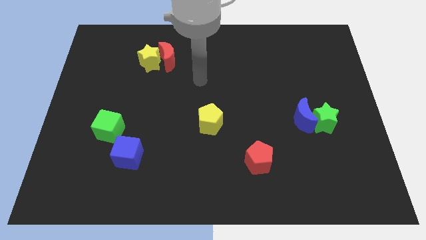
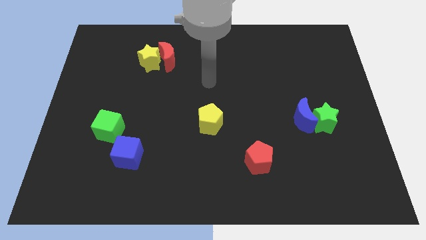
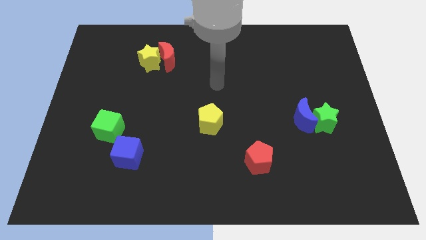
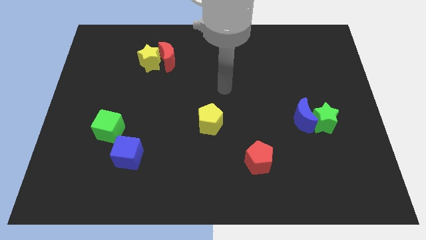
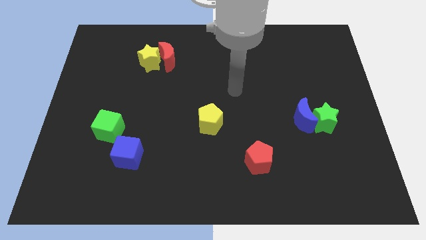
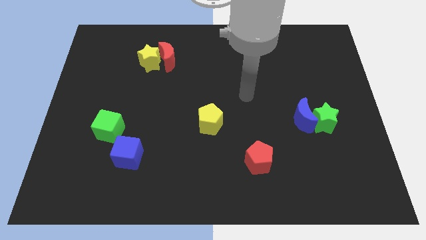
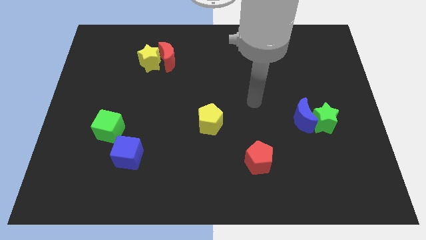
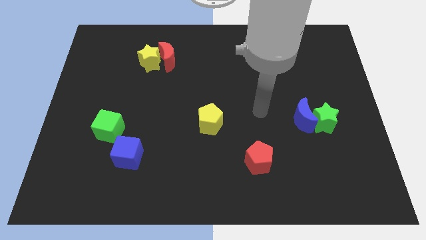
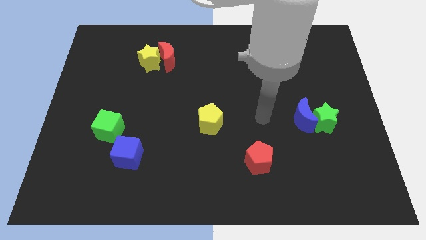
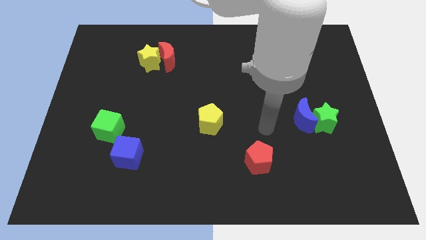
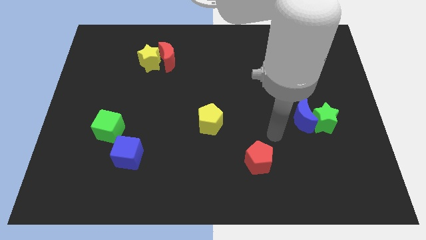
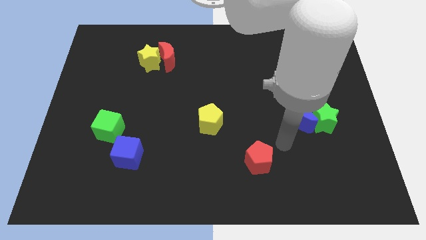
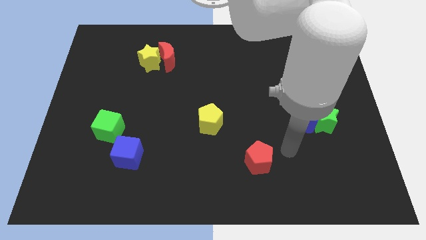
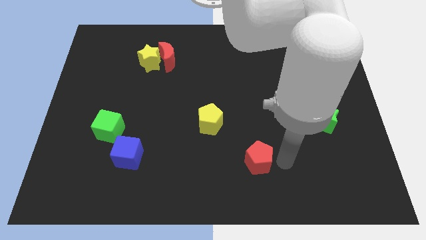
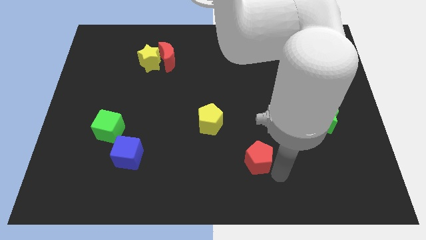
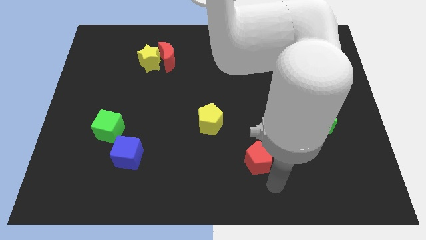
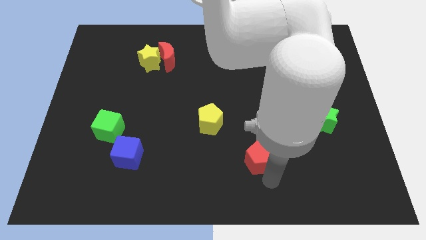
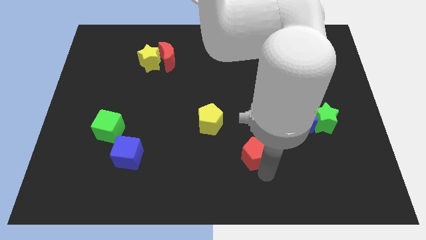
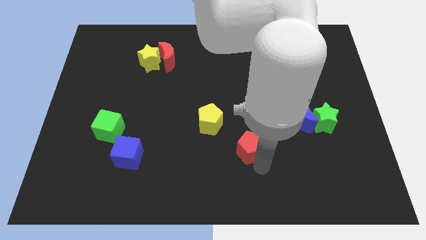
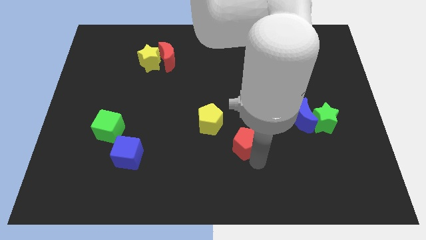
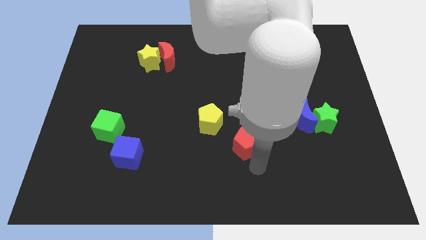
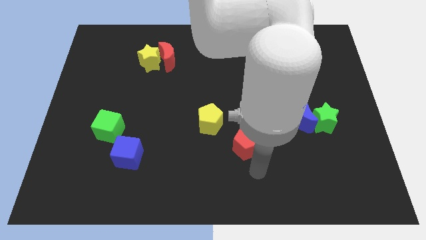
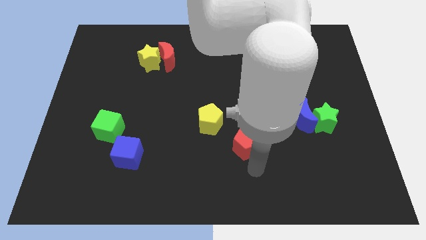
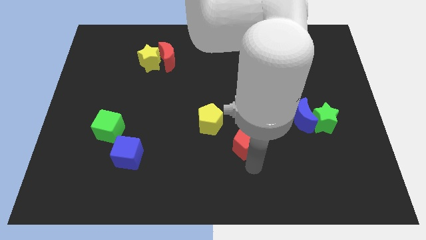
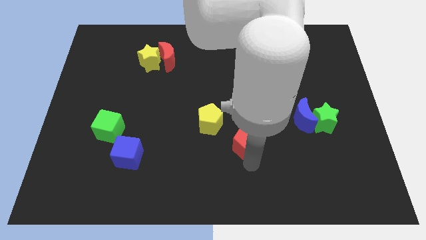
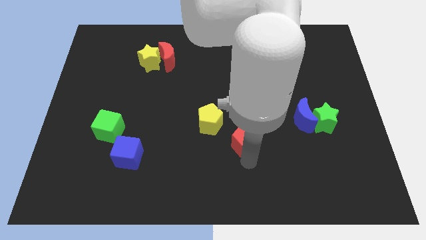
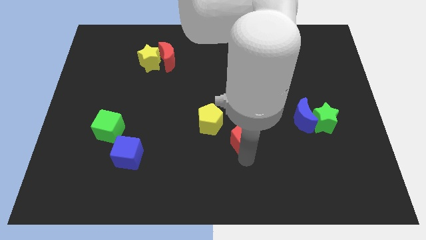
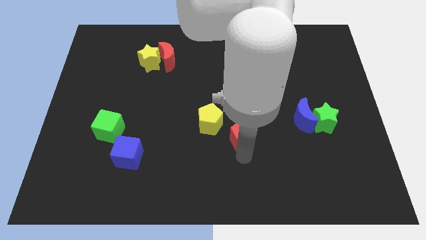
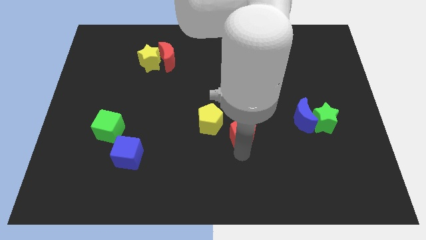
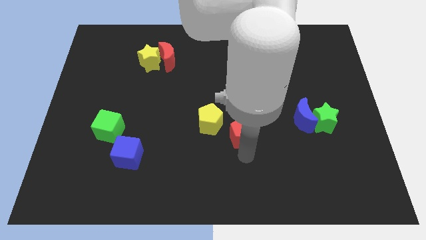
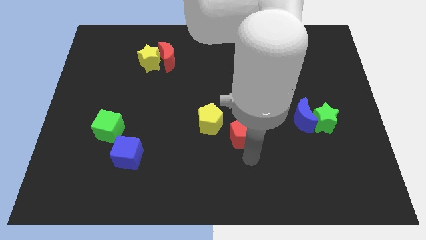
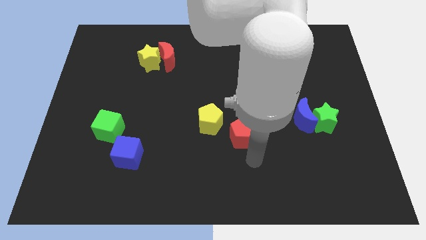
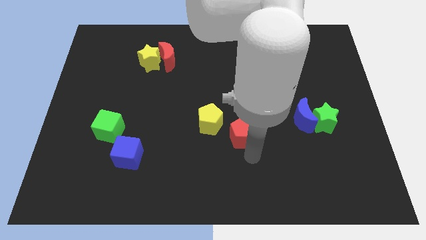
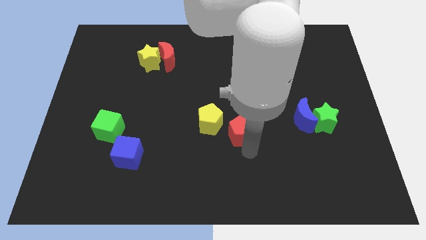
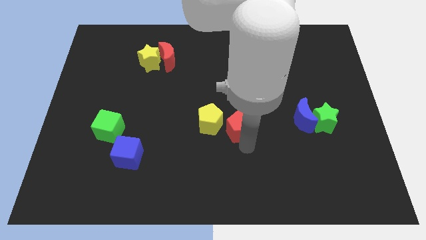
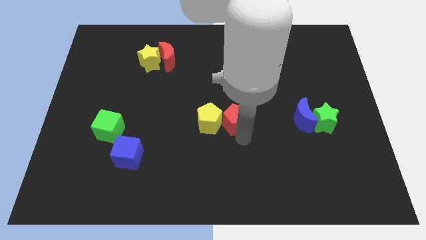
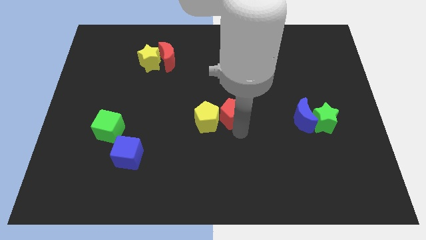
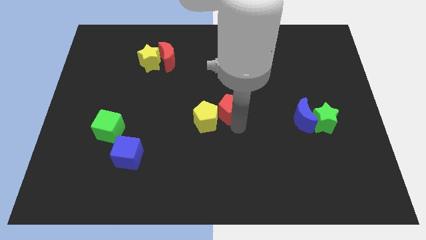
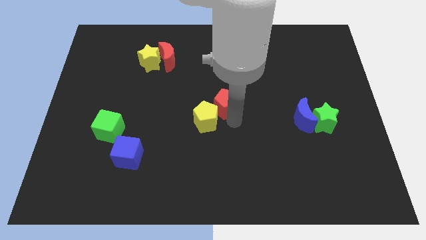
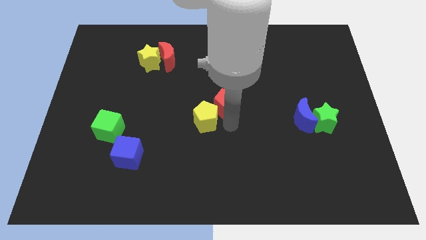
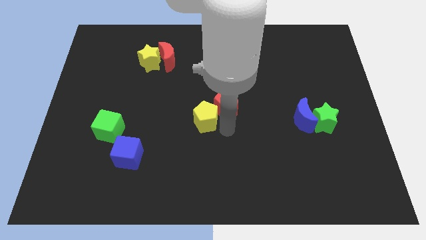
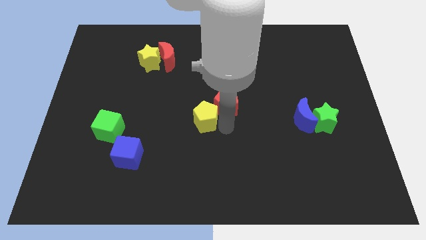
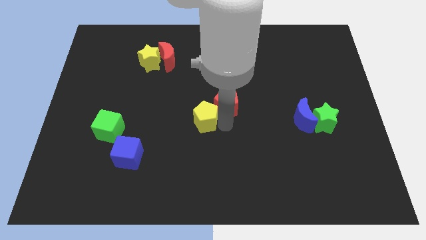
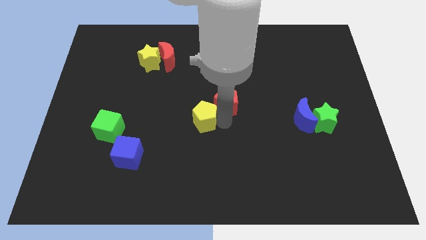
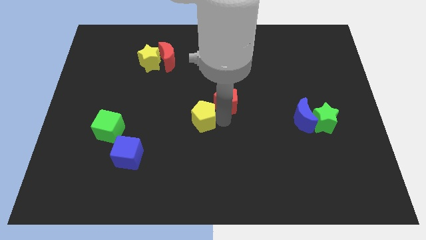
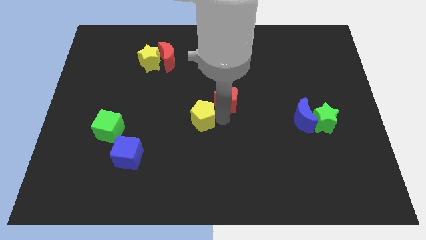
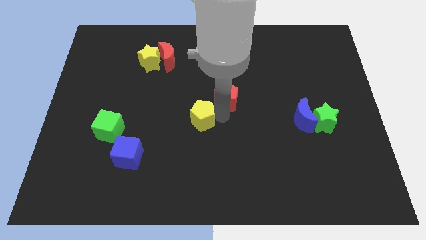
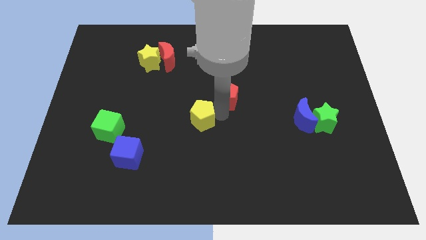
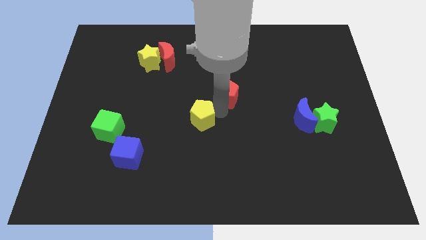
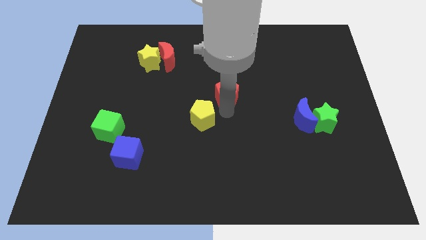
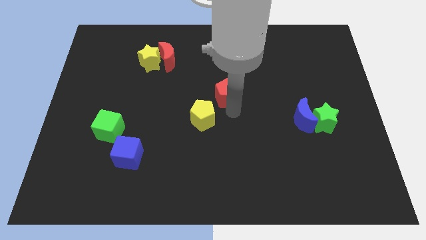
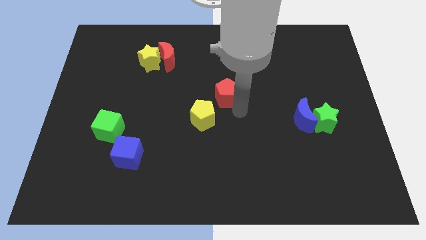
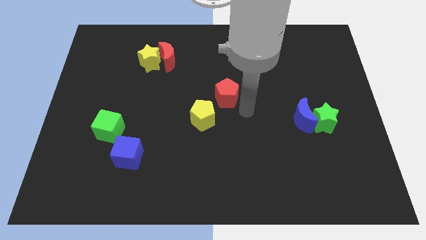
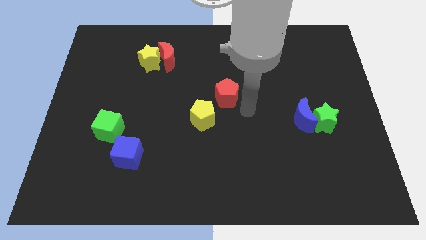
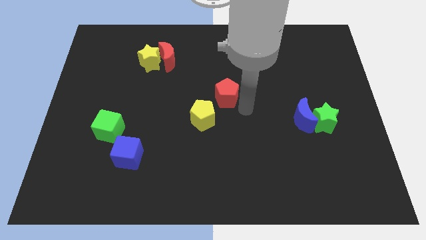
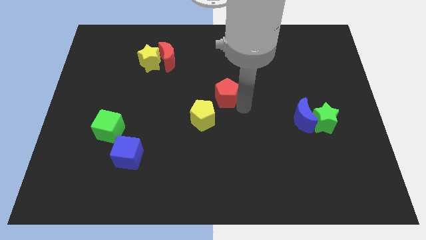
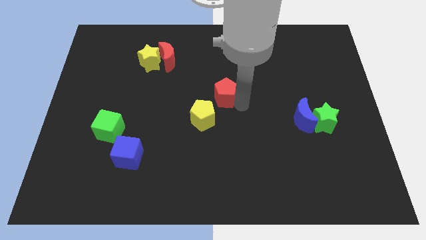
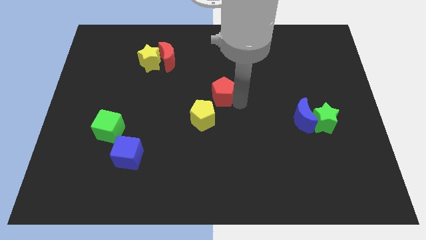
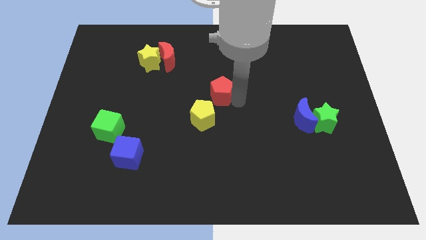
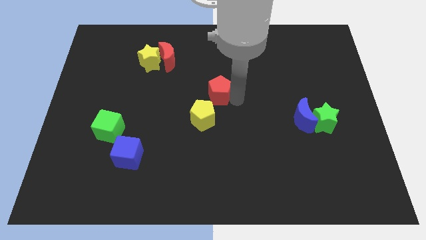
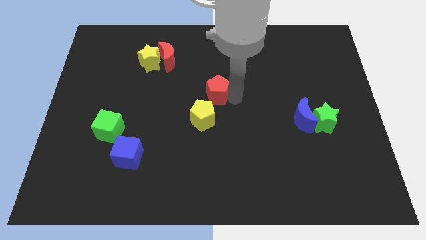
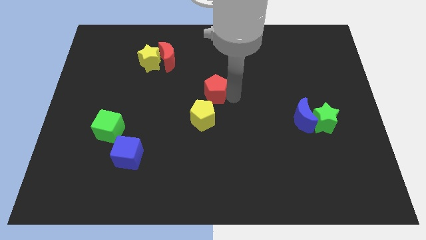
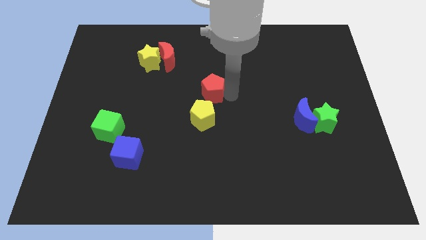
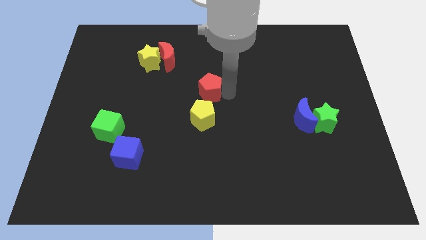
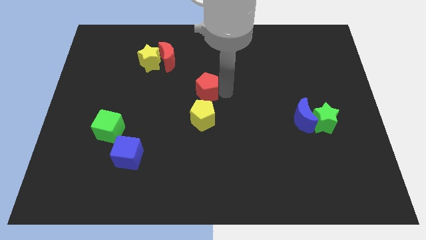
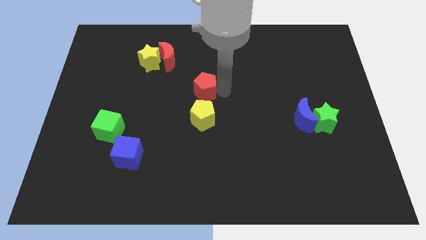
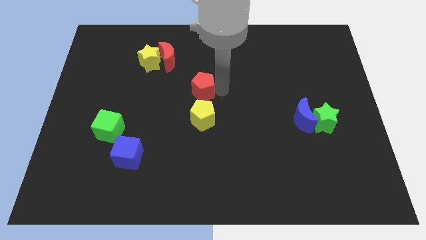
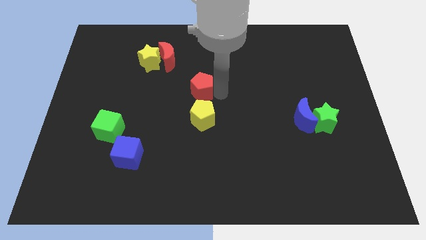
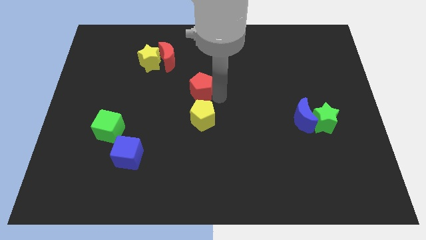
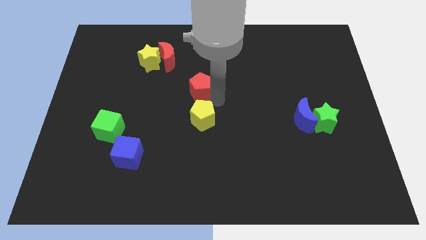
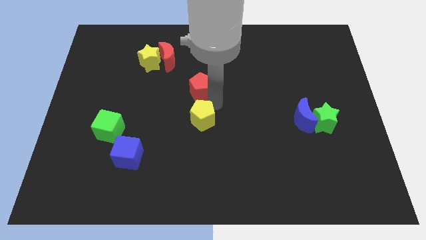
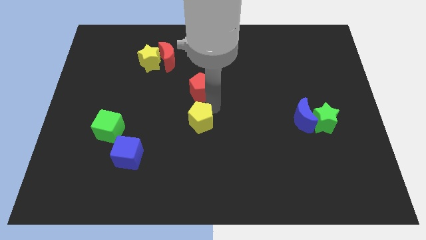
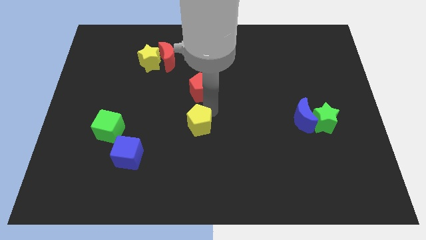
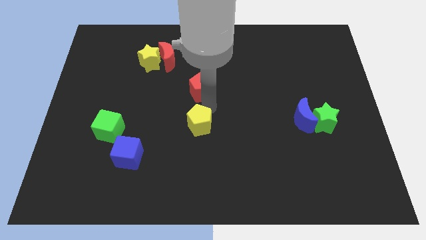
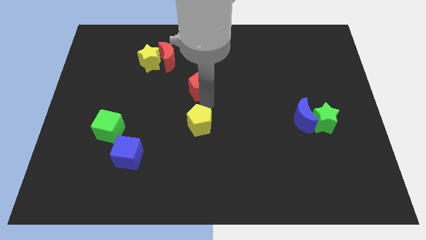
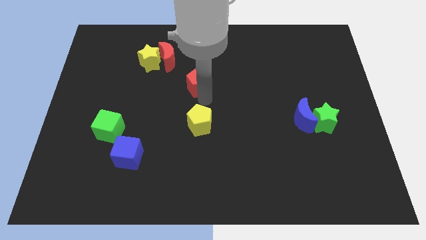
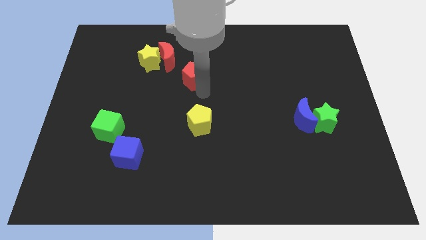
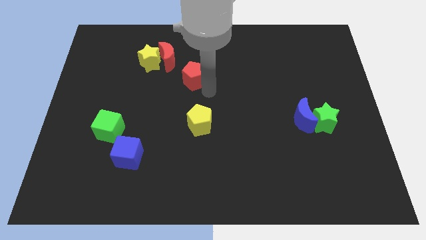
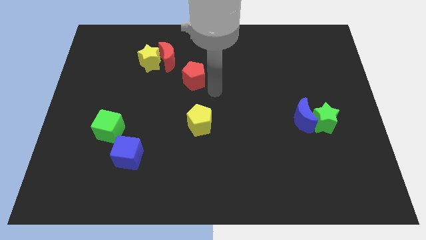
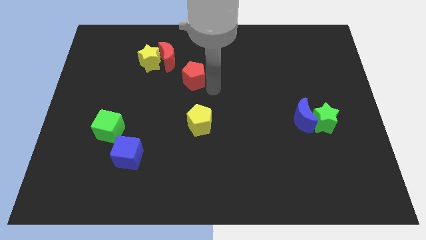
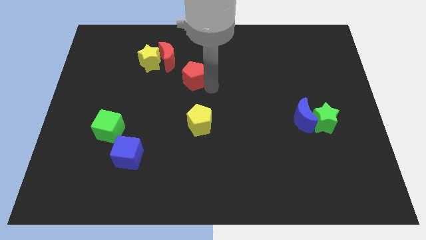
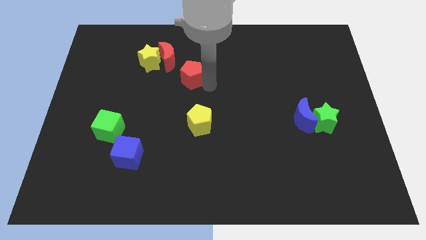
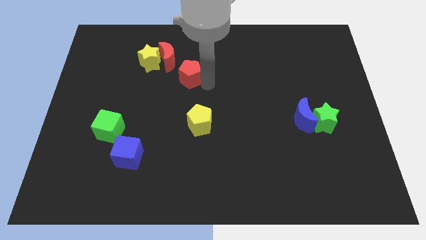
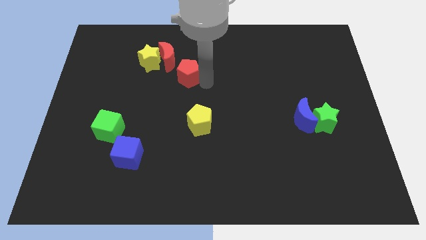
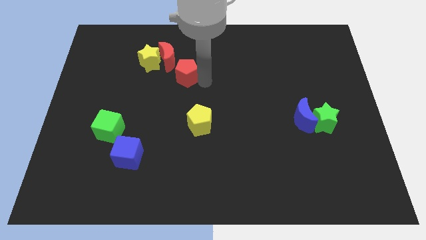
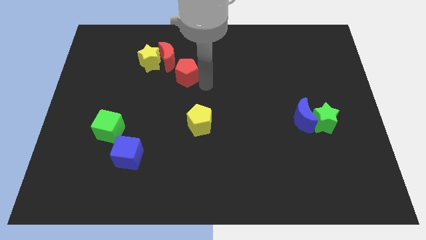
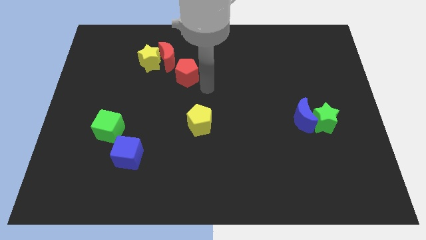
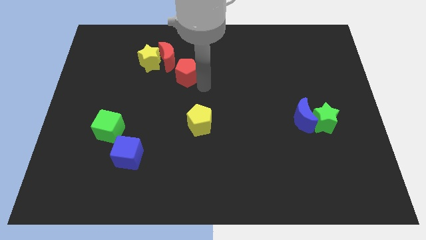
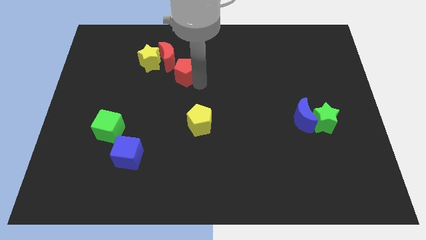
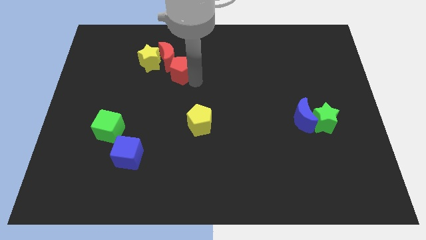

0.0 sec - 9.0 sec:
put the red pentagon next to the red moon
